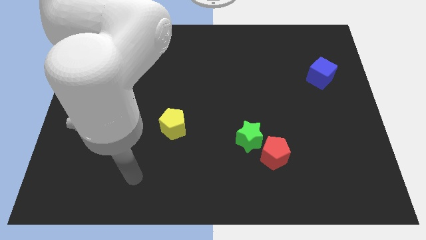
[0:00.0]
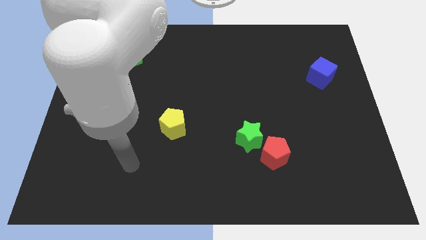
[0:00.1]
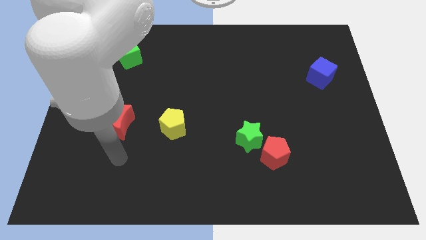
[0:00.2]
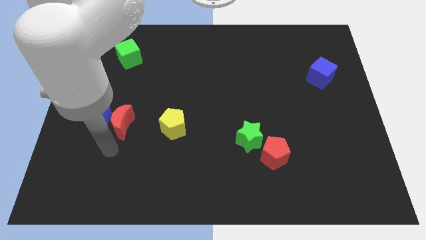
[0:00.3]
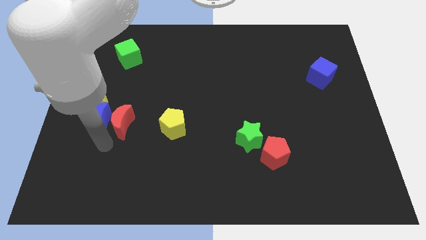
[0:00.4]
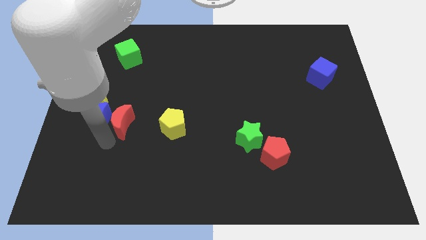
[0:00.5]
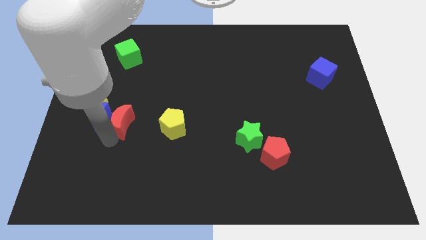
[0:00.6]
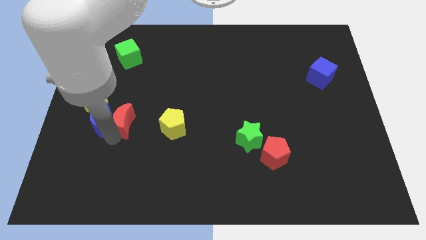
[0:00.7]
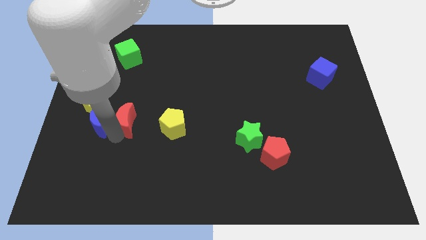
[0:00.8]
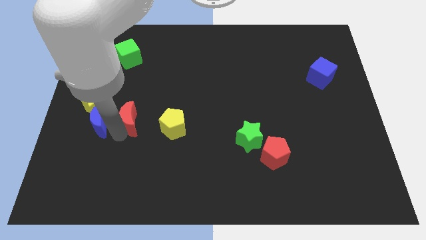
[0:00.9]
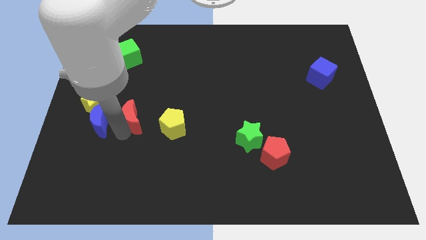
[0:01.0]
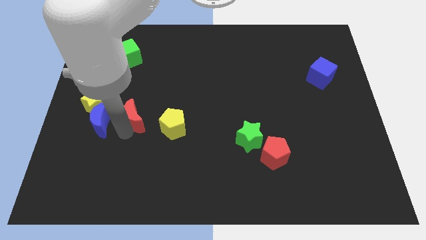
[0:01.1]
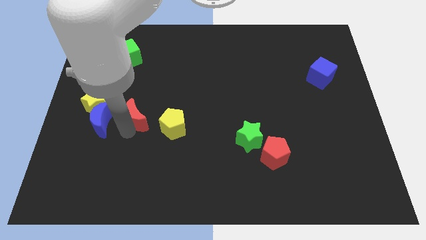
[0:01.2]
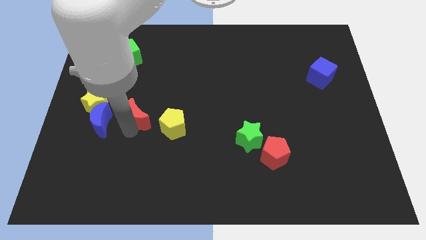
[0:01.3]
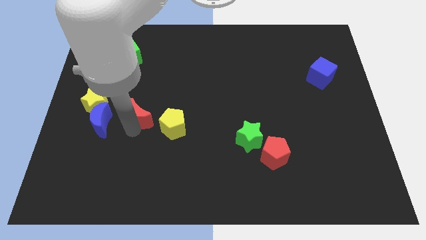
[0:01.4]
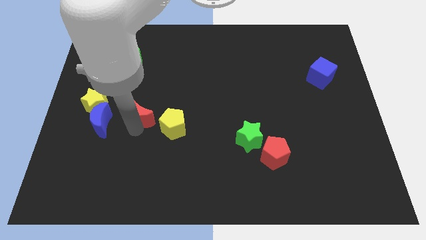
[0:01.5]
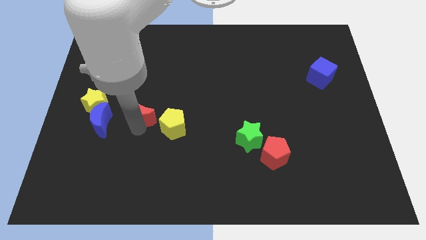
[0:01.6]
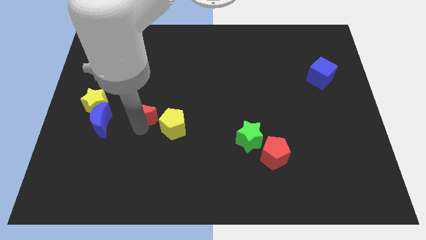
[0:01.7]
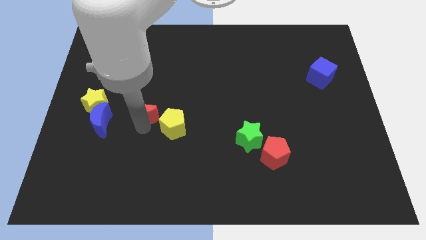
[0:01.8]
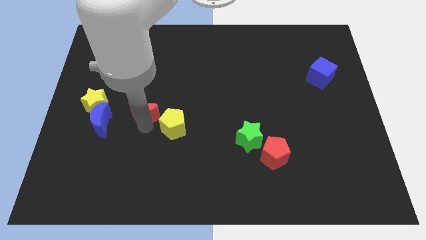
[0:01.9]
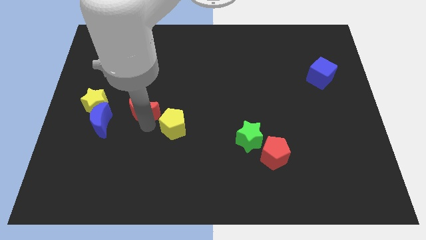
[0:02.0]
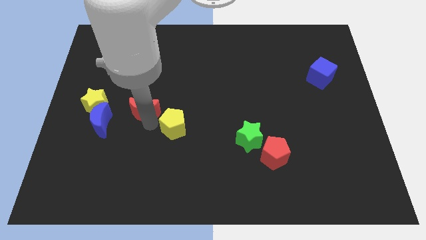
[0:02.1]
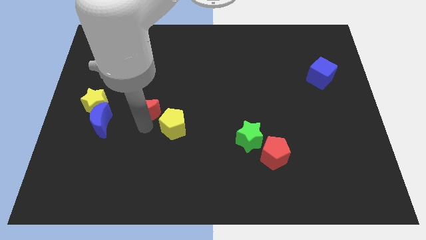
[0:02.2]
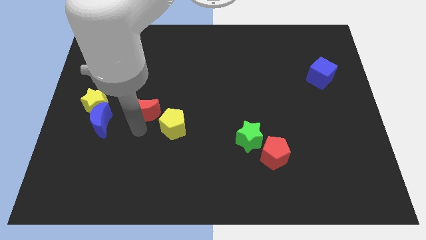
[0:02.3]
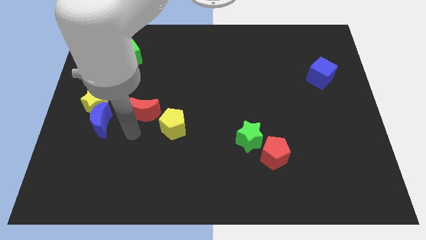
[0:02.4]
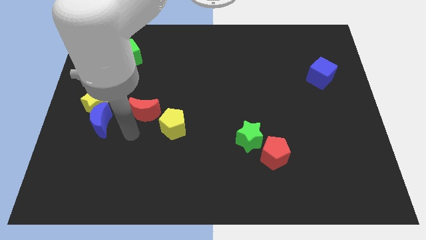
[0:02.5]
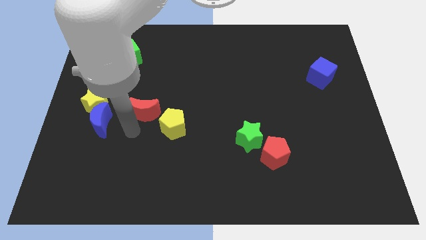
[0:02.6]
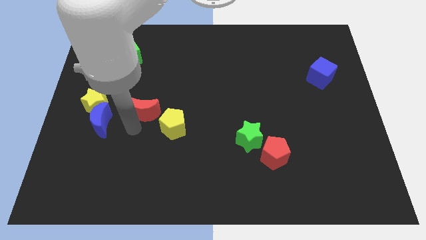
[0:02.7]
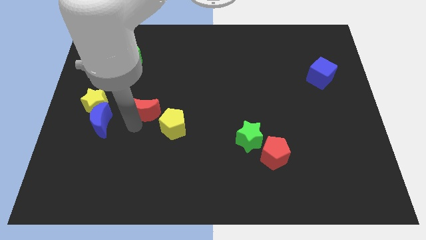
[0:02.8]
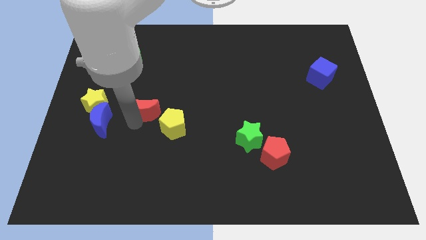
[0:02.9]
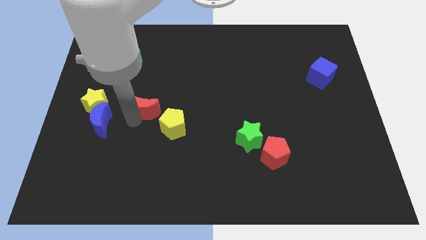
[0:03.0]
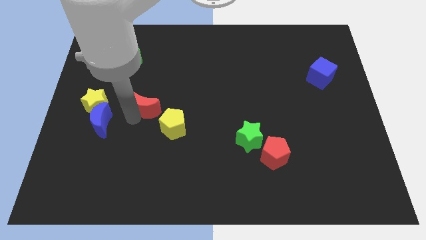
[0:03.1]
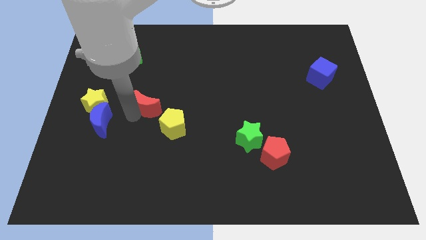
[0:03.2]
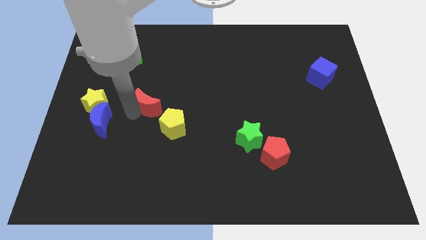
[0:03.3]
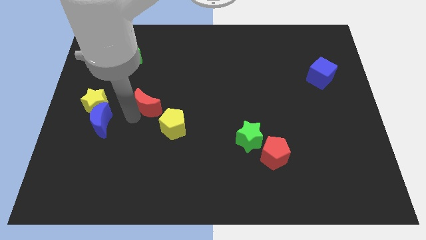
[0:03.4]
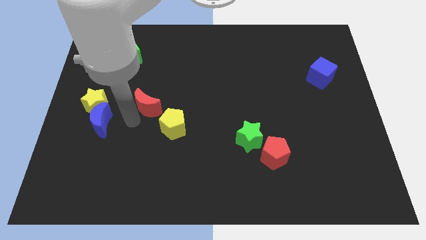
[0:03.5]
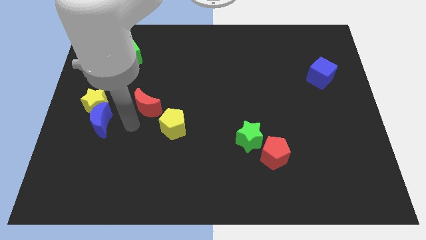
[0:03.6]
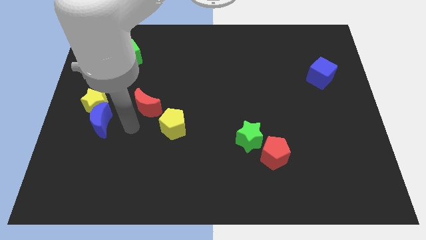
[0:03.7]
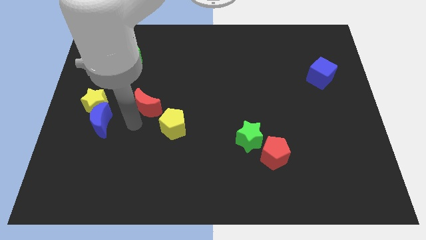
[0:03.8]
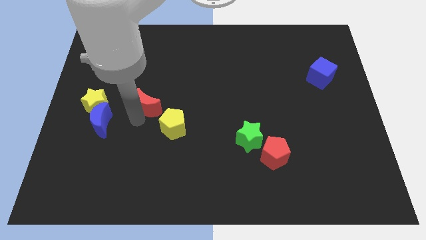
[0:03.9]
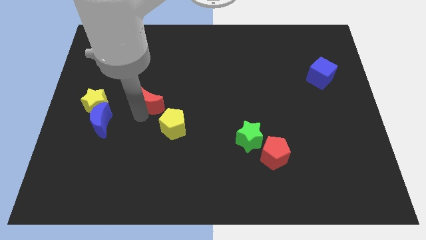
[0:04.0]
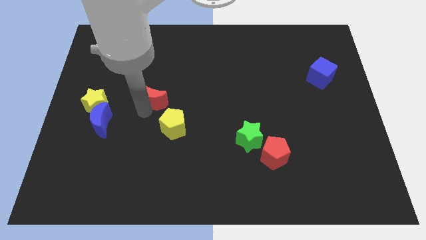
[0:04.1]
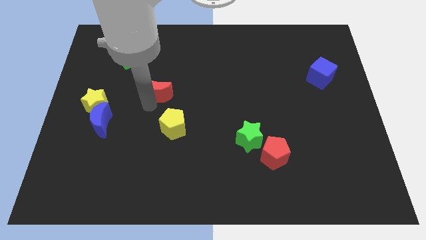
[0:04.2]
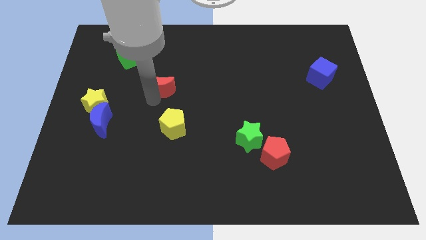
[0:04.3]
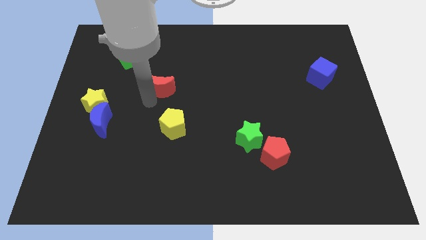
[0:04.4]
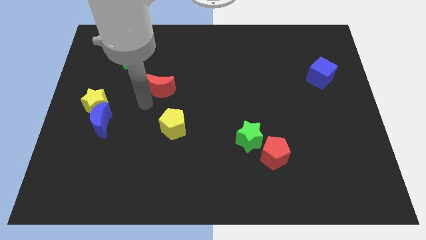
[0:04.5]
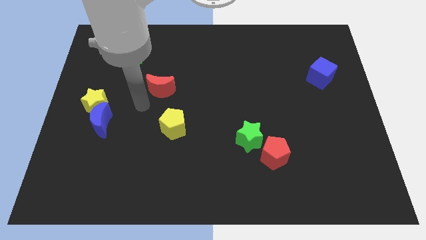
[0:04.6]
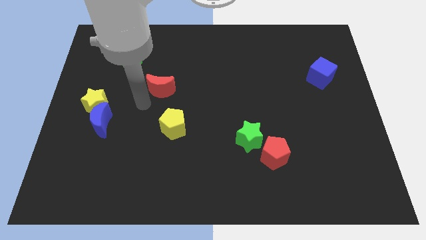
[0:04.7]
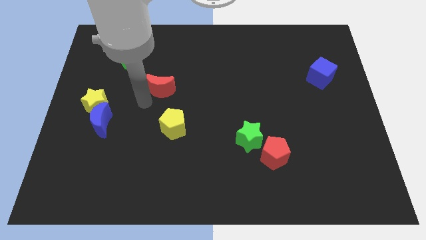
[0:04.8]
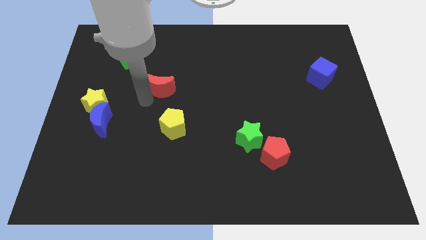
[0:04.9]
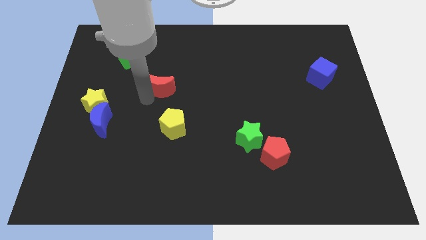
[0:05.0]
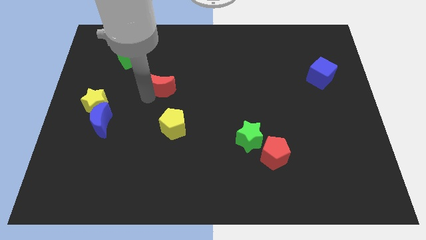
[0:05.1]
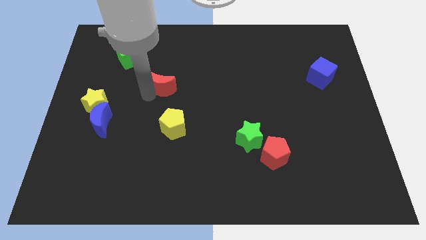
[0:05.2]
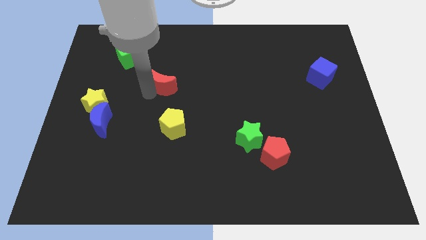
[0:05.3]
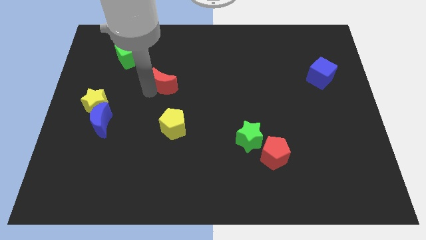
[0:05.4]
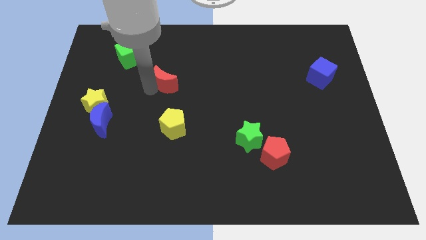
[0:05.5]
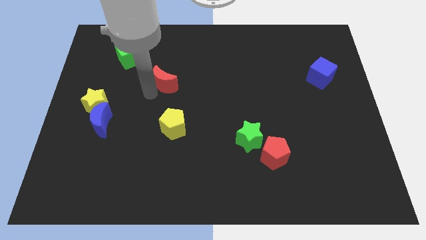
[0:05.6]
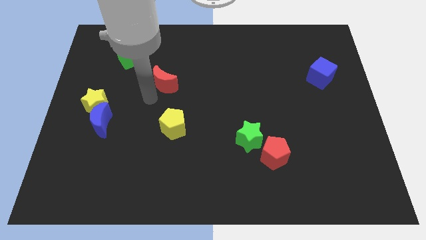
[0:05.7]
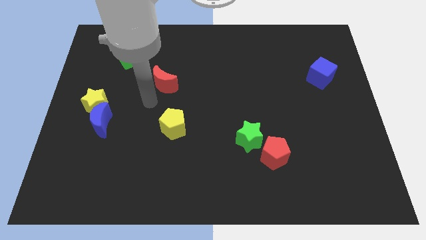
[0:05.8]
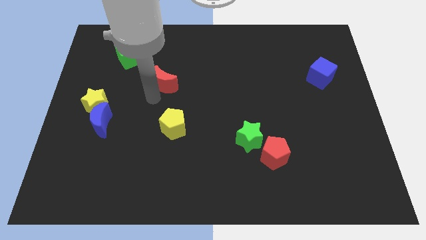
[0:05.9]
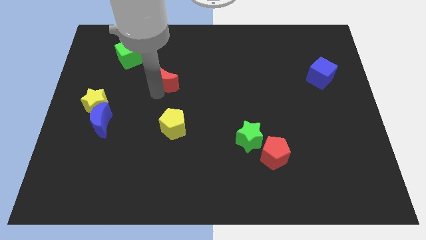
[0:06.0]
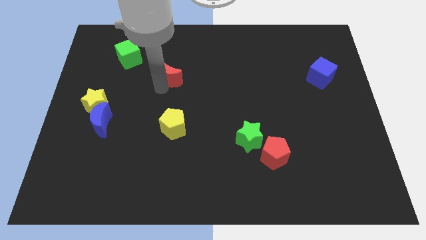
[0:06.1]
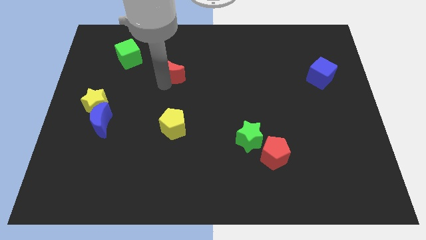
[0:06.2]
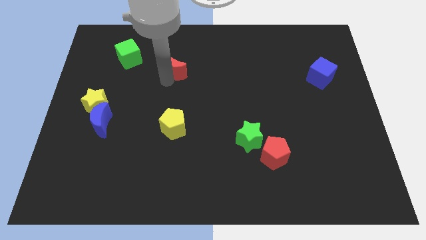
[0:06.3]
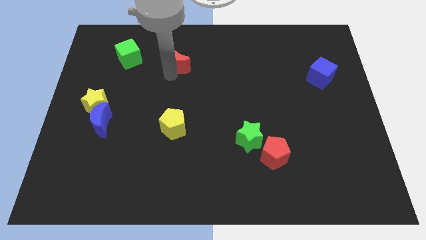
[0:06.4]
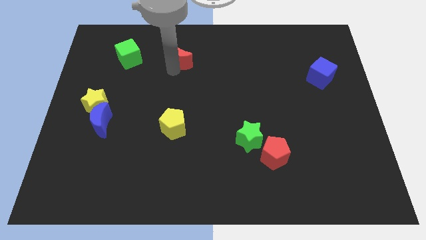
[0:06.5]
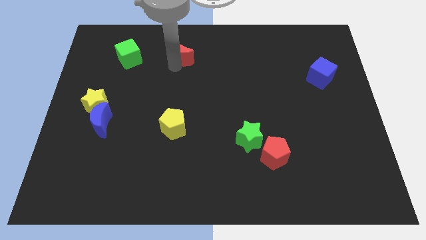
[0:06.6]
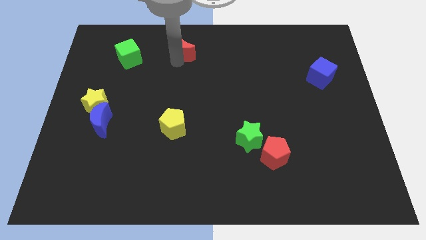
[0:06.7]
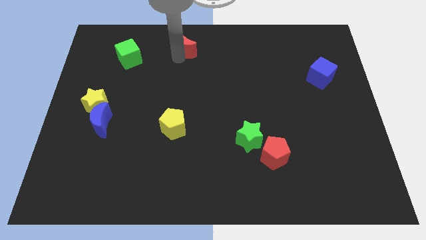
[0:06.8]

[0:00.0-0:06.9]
move the red moon to the top side
